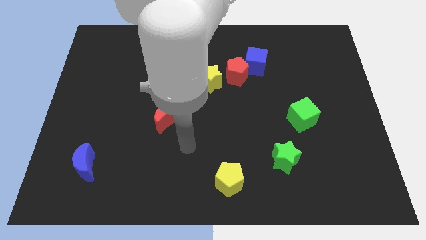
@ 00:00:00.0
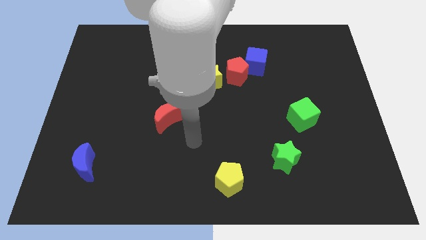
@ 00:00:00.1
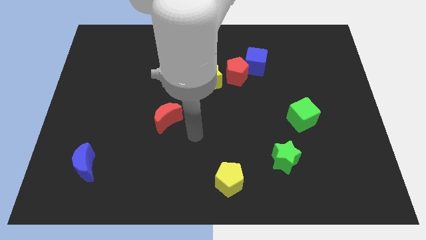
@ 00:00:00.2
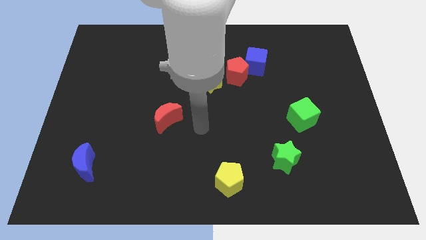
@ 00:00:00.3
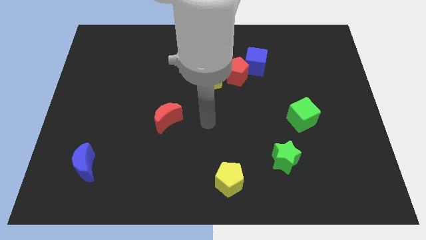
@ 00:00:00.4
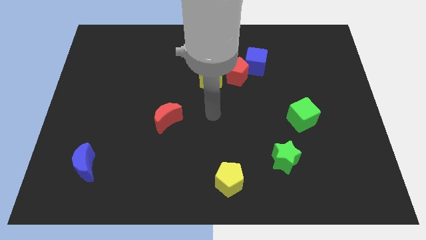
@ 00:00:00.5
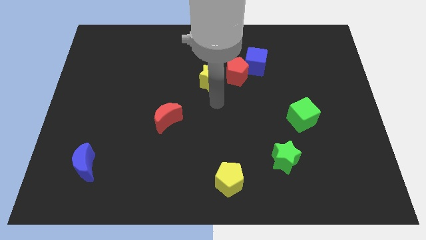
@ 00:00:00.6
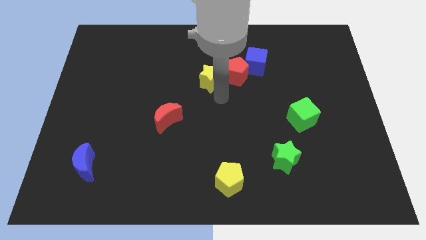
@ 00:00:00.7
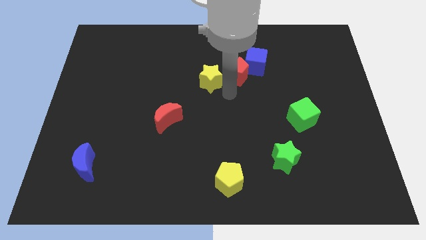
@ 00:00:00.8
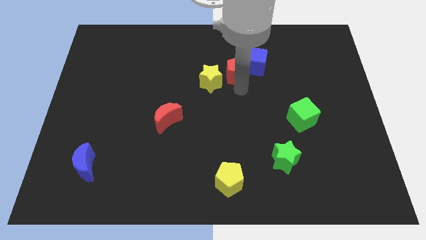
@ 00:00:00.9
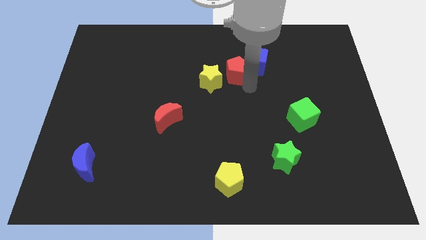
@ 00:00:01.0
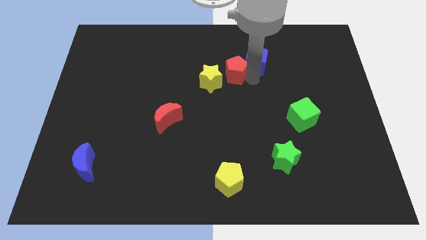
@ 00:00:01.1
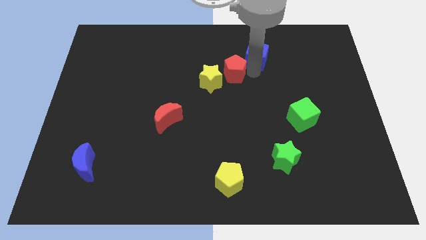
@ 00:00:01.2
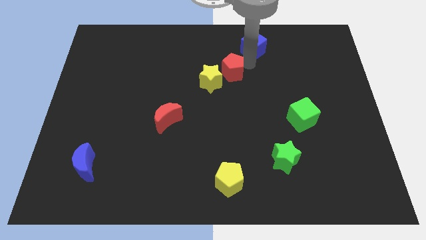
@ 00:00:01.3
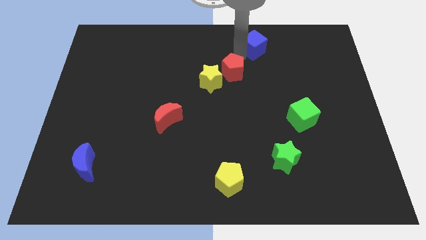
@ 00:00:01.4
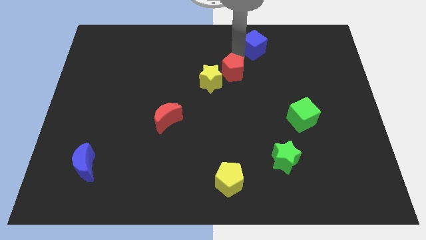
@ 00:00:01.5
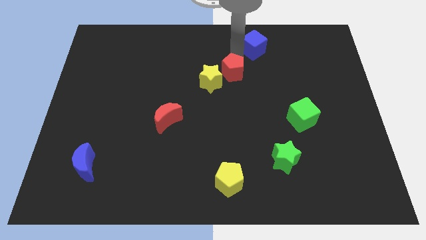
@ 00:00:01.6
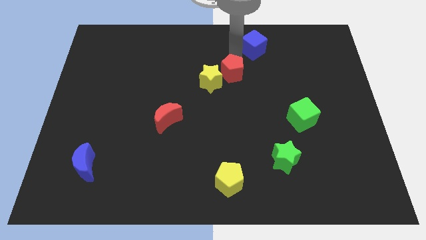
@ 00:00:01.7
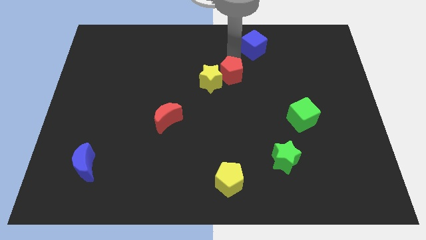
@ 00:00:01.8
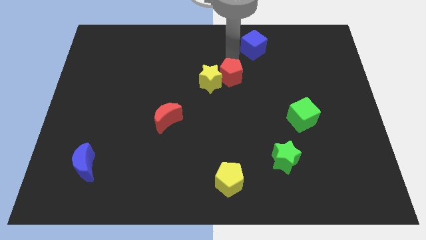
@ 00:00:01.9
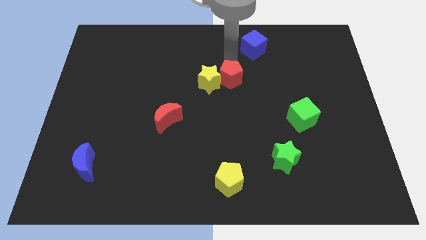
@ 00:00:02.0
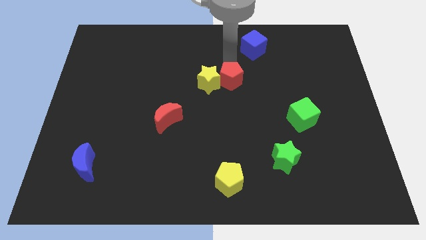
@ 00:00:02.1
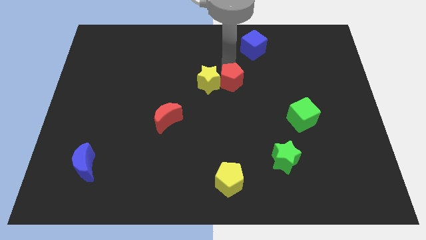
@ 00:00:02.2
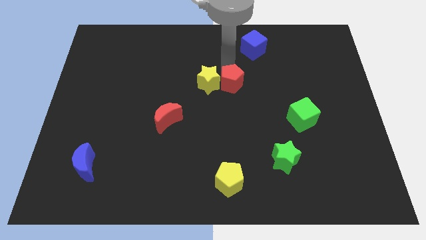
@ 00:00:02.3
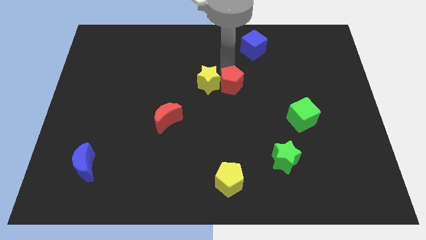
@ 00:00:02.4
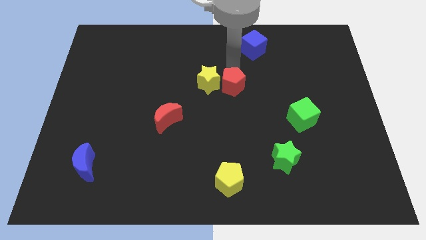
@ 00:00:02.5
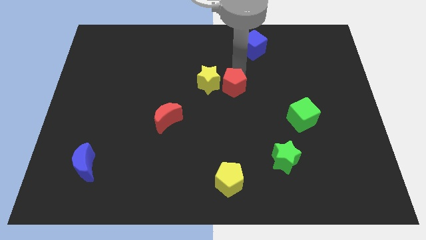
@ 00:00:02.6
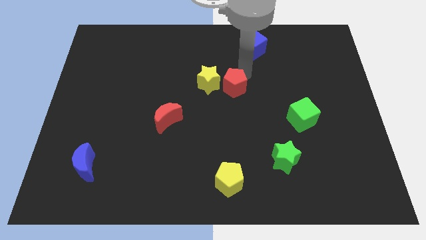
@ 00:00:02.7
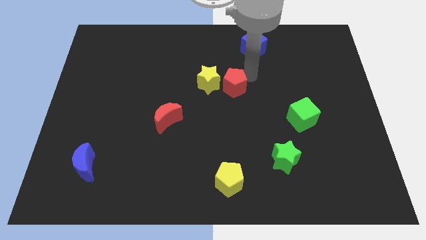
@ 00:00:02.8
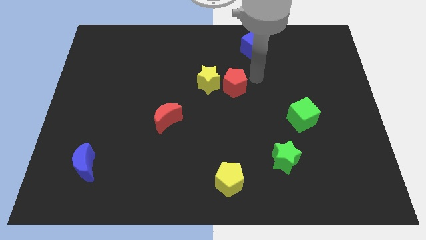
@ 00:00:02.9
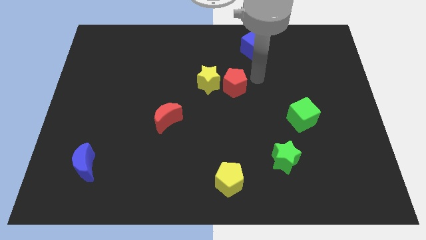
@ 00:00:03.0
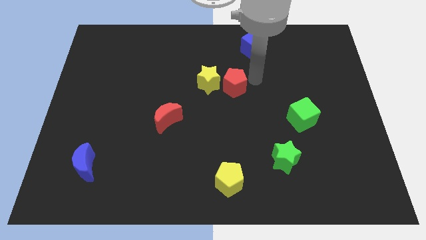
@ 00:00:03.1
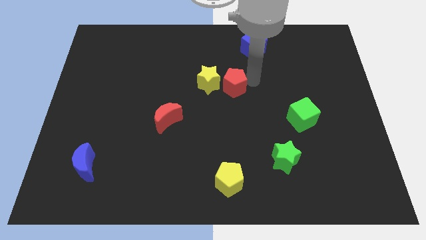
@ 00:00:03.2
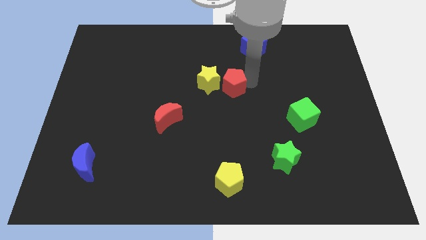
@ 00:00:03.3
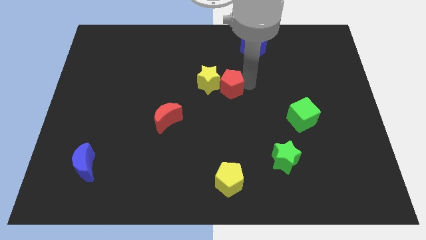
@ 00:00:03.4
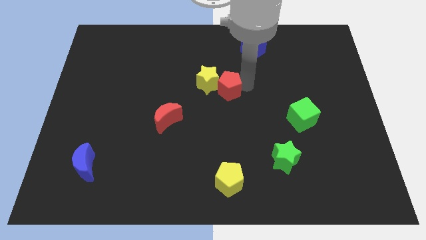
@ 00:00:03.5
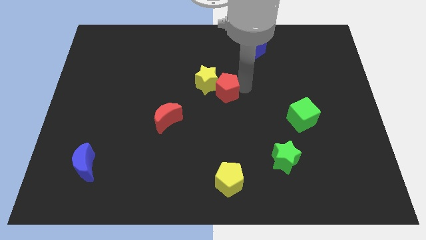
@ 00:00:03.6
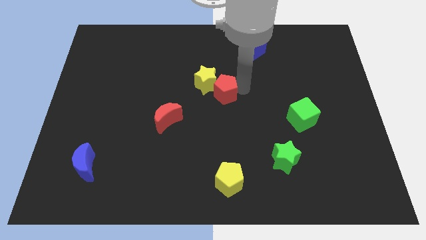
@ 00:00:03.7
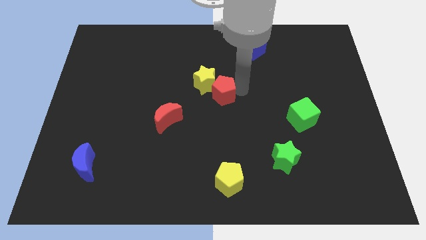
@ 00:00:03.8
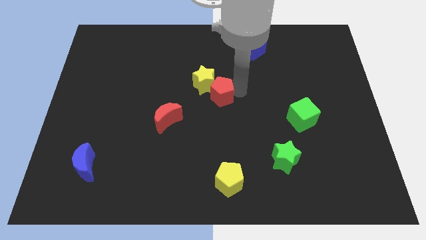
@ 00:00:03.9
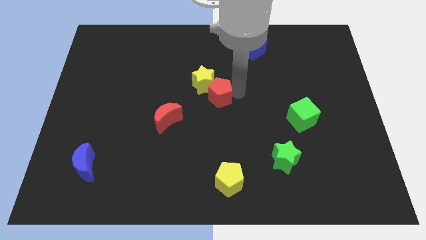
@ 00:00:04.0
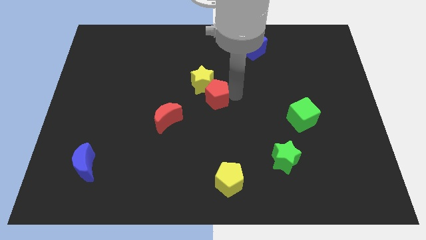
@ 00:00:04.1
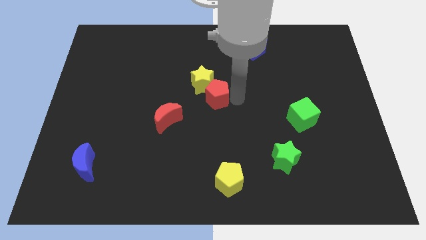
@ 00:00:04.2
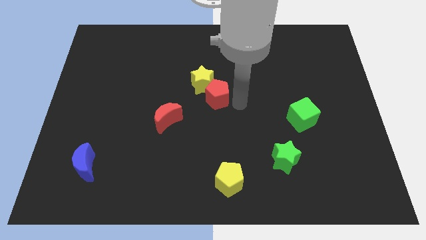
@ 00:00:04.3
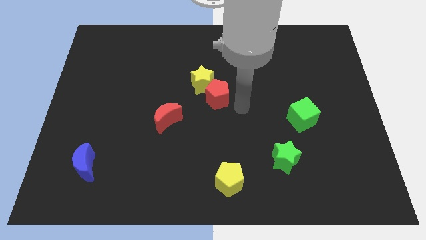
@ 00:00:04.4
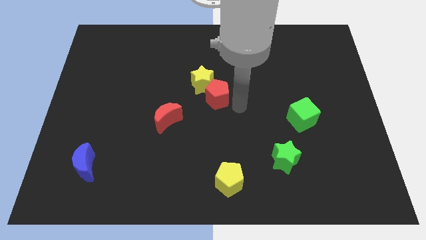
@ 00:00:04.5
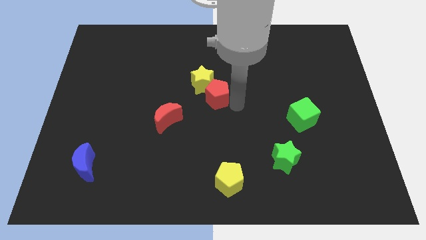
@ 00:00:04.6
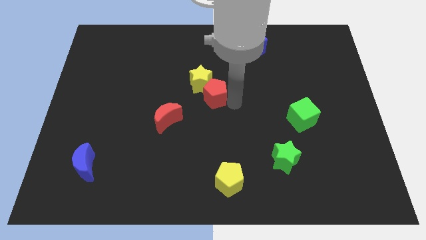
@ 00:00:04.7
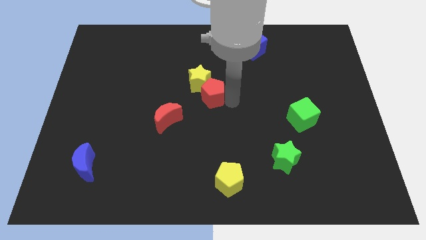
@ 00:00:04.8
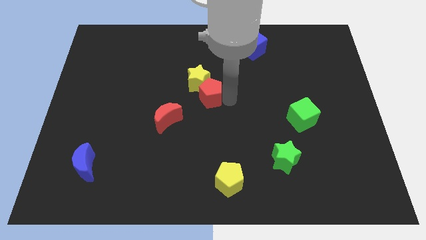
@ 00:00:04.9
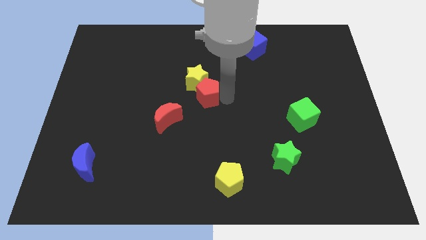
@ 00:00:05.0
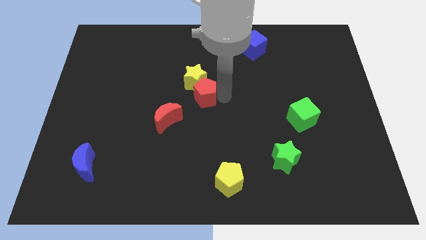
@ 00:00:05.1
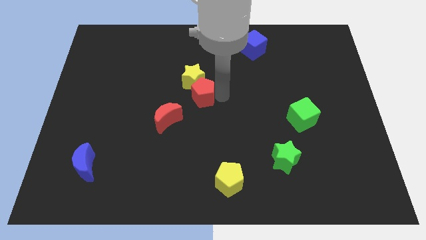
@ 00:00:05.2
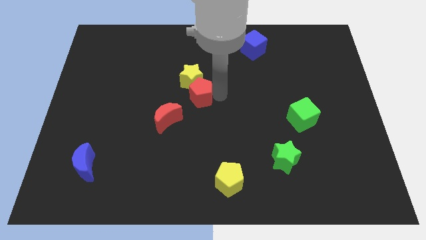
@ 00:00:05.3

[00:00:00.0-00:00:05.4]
push the red pentagon left a bit

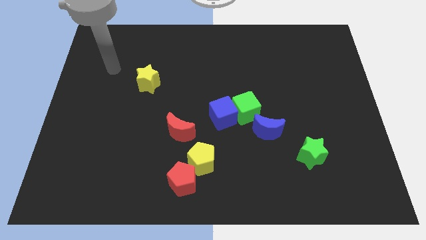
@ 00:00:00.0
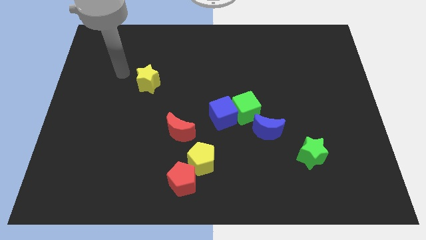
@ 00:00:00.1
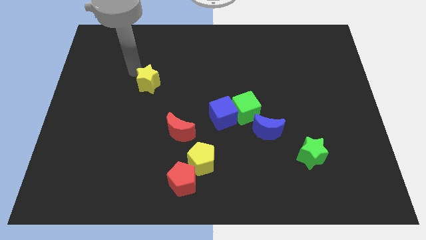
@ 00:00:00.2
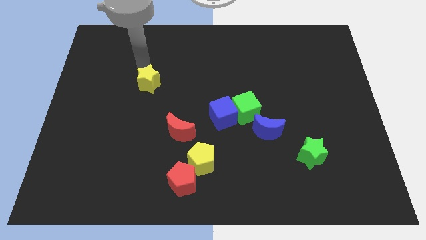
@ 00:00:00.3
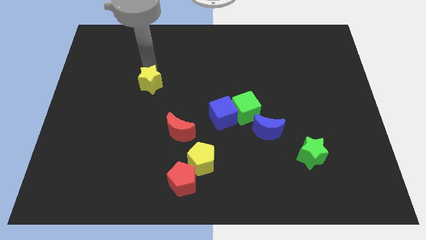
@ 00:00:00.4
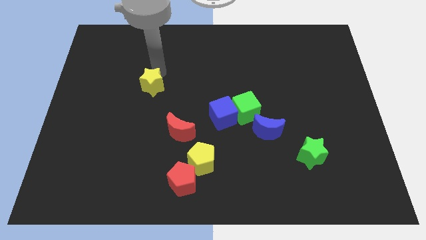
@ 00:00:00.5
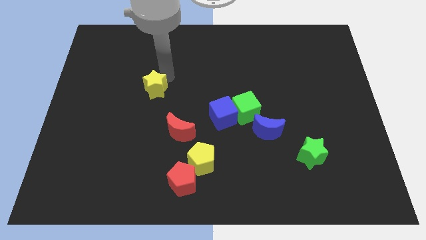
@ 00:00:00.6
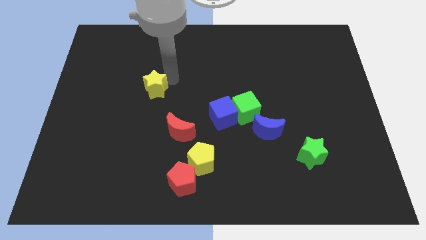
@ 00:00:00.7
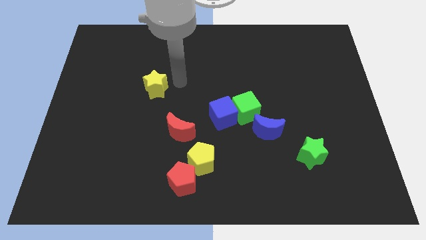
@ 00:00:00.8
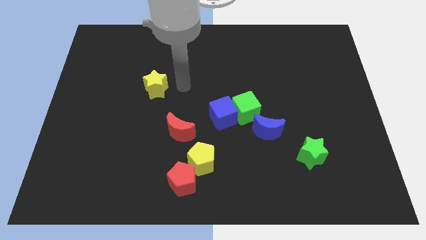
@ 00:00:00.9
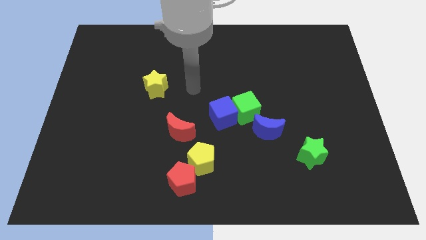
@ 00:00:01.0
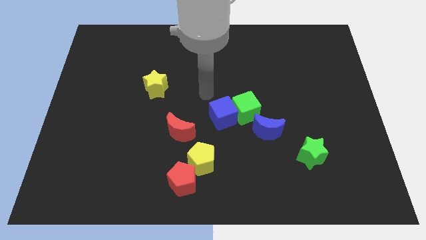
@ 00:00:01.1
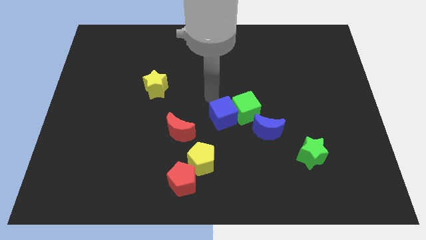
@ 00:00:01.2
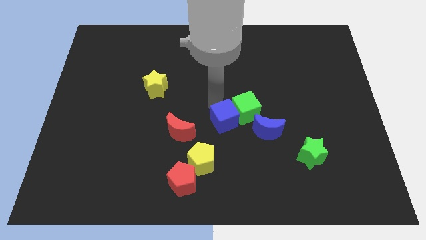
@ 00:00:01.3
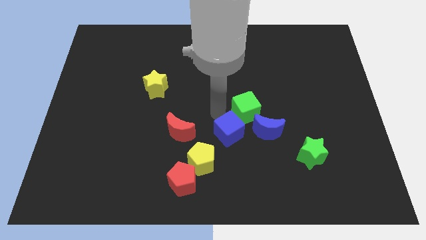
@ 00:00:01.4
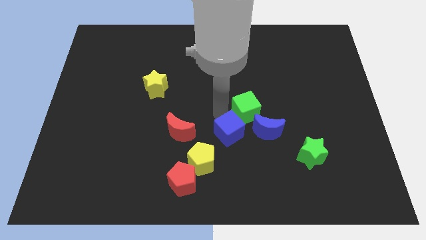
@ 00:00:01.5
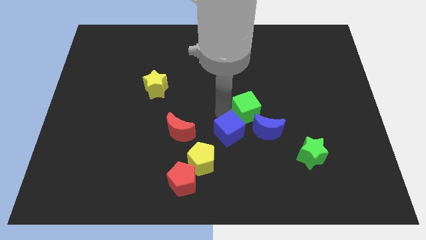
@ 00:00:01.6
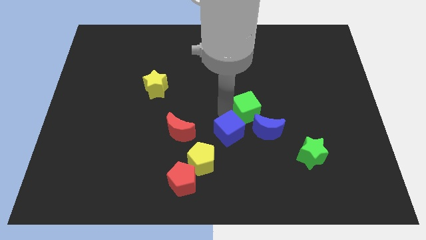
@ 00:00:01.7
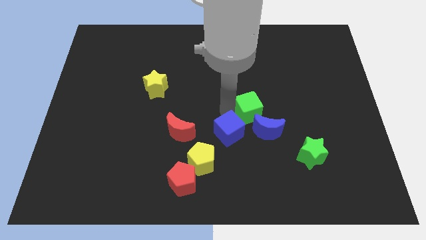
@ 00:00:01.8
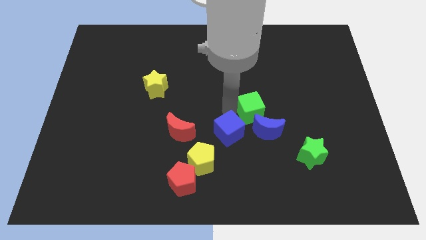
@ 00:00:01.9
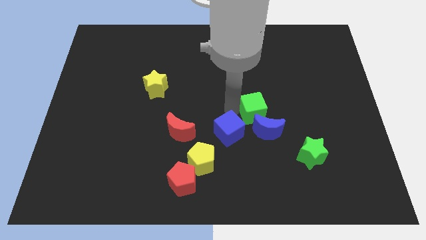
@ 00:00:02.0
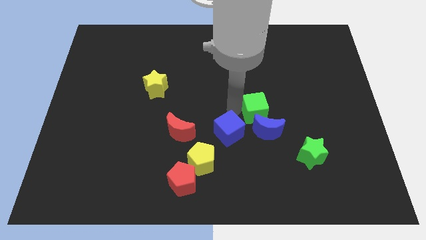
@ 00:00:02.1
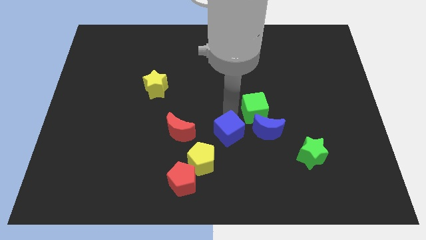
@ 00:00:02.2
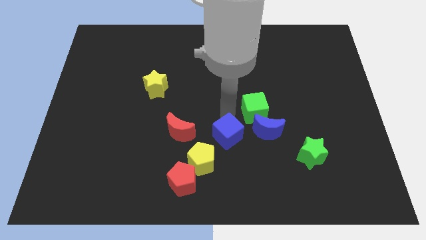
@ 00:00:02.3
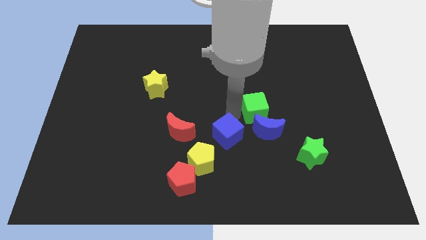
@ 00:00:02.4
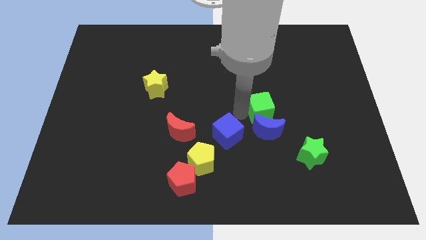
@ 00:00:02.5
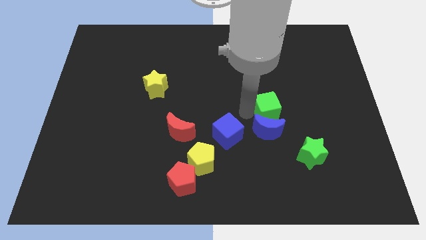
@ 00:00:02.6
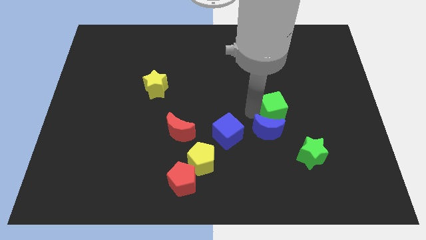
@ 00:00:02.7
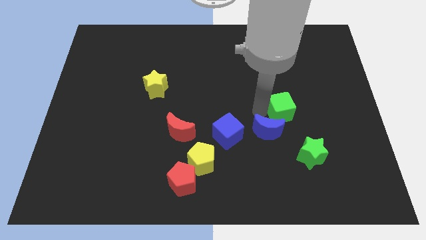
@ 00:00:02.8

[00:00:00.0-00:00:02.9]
push the green cube right a little bit
